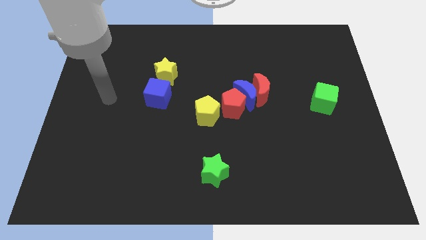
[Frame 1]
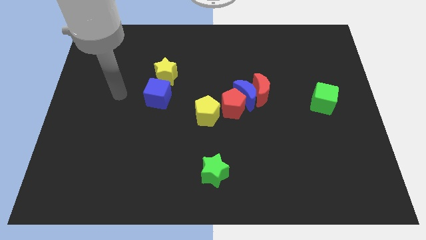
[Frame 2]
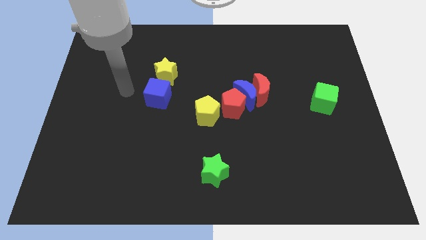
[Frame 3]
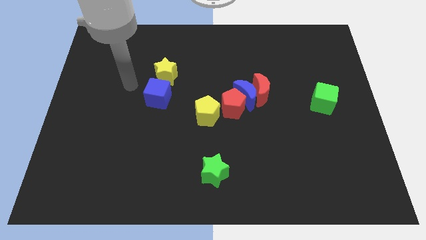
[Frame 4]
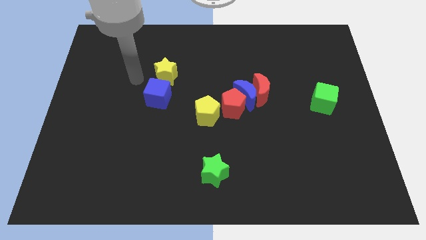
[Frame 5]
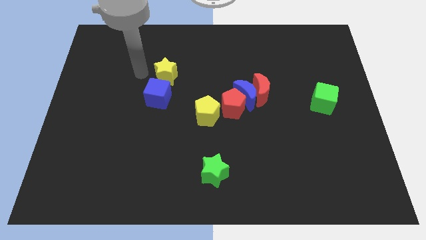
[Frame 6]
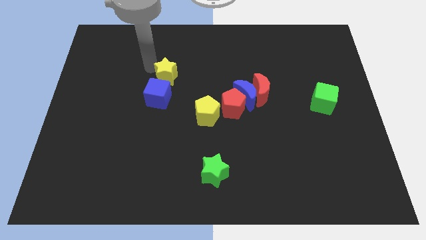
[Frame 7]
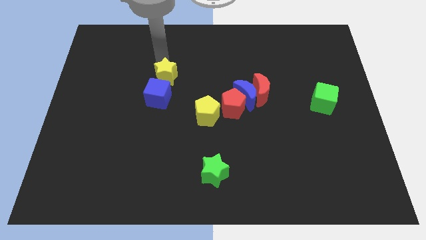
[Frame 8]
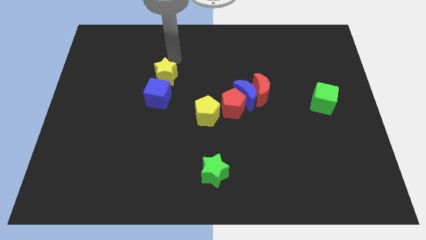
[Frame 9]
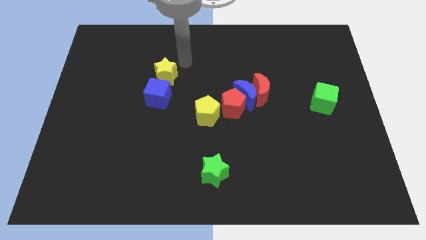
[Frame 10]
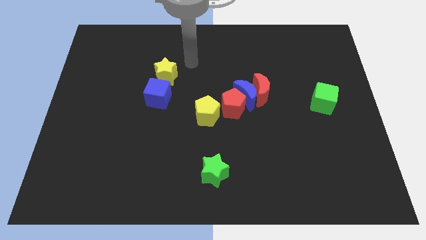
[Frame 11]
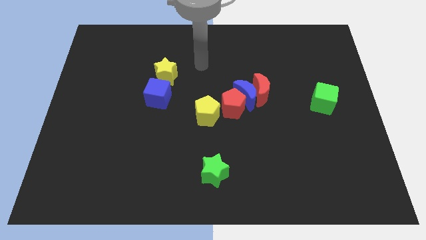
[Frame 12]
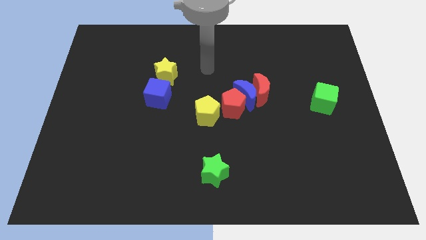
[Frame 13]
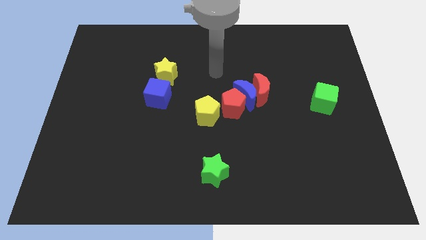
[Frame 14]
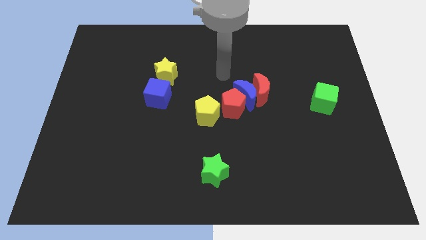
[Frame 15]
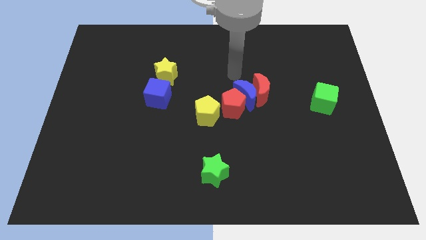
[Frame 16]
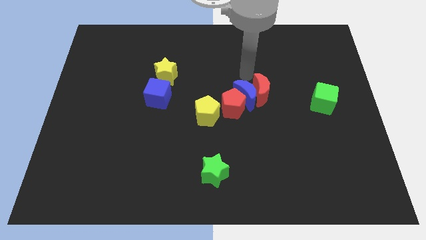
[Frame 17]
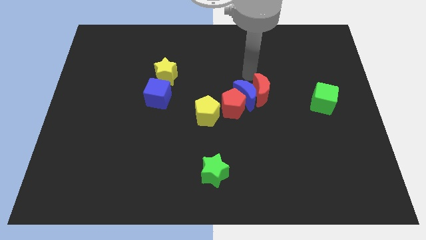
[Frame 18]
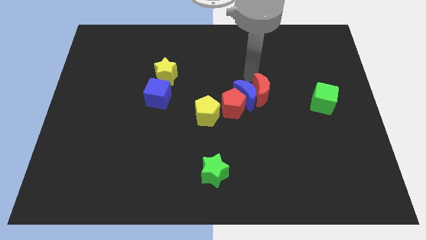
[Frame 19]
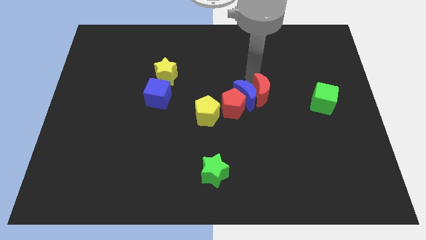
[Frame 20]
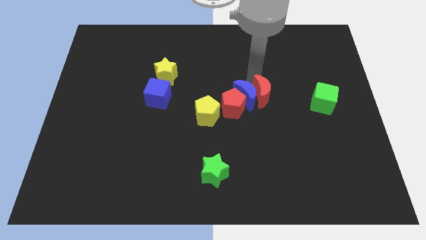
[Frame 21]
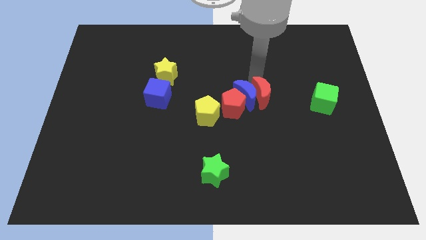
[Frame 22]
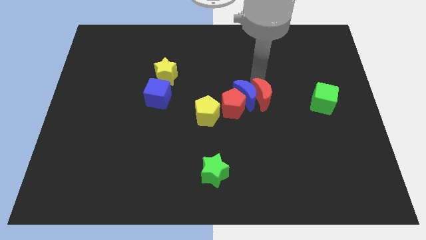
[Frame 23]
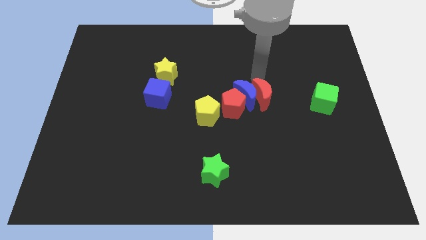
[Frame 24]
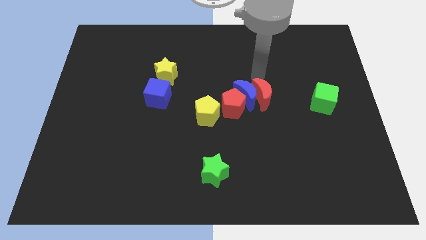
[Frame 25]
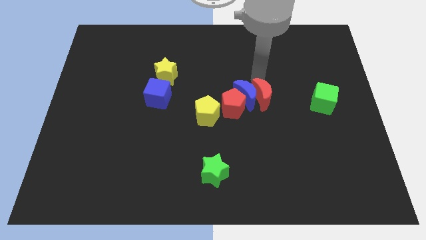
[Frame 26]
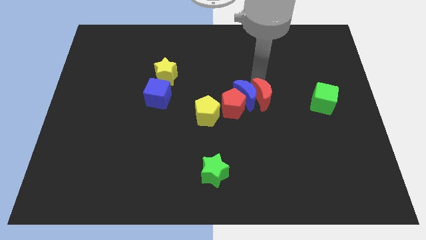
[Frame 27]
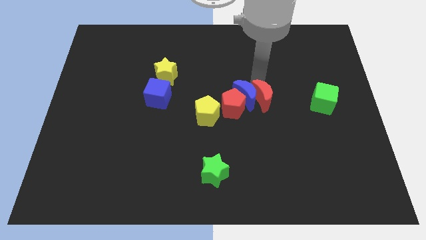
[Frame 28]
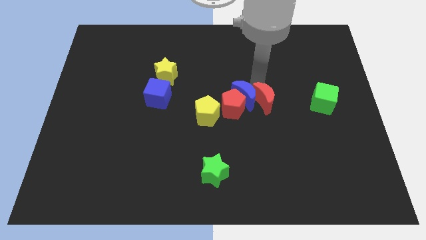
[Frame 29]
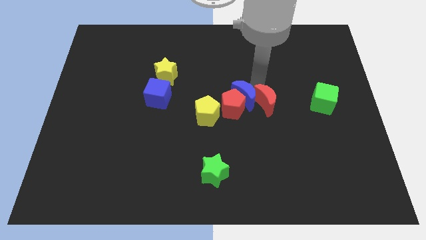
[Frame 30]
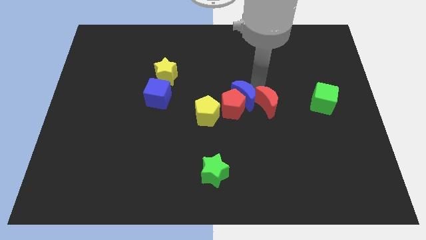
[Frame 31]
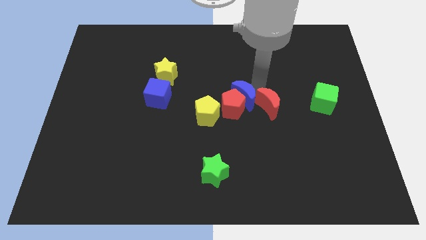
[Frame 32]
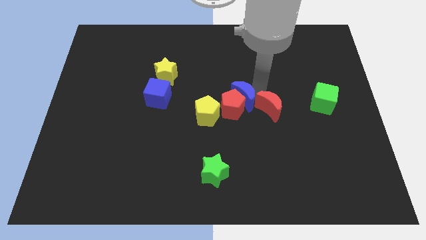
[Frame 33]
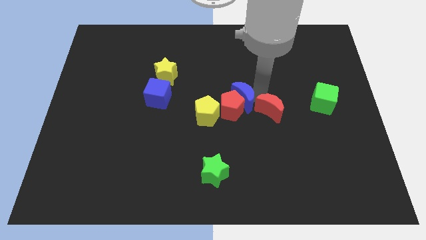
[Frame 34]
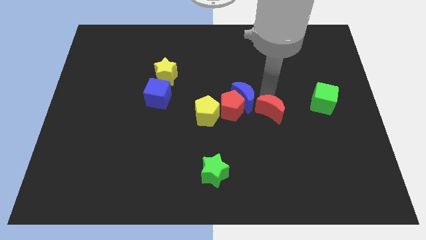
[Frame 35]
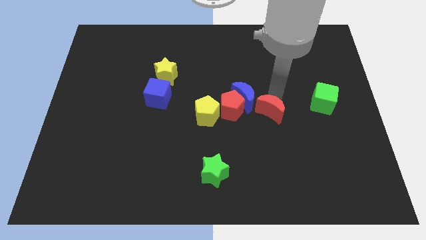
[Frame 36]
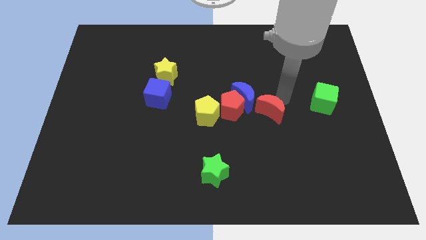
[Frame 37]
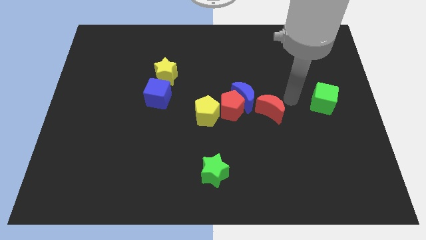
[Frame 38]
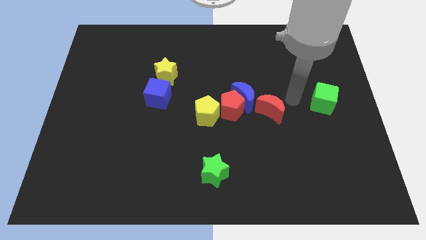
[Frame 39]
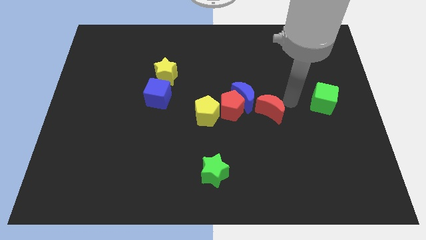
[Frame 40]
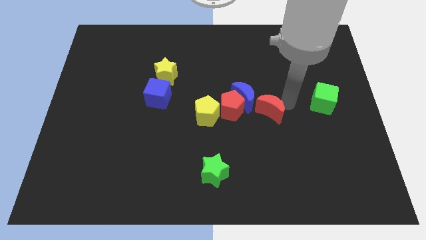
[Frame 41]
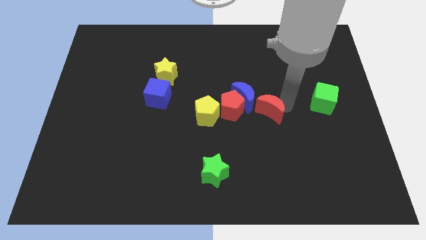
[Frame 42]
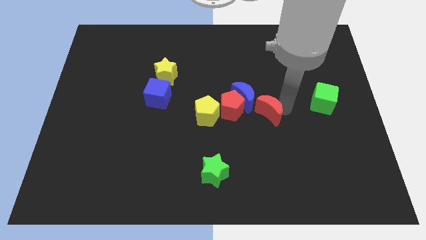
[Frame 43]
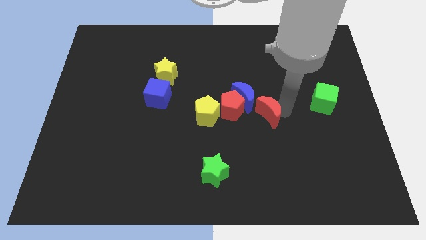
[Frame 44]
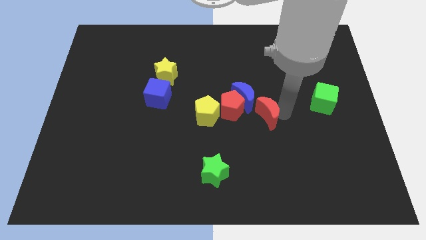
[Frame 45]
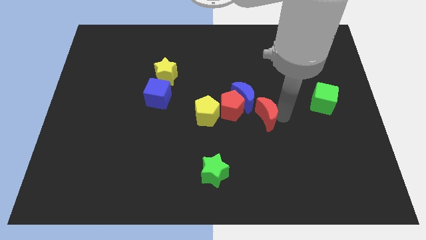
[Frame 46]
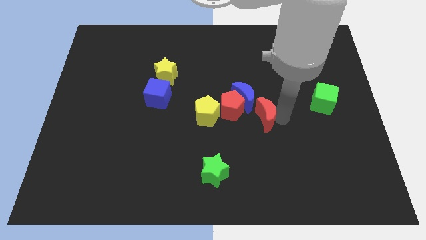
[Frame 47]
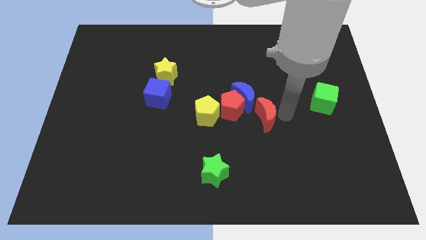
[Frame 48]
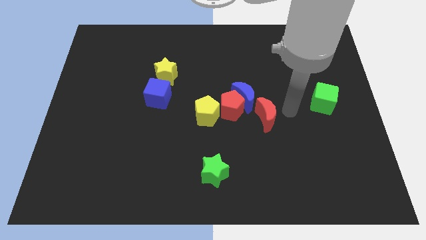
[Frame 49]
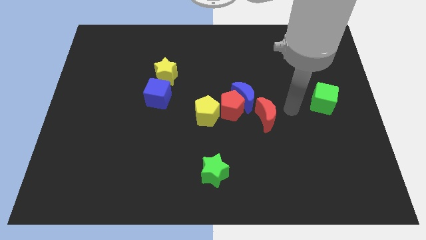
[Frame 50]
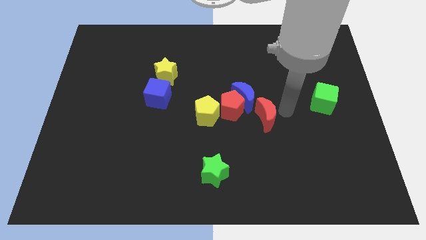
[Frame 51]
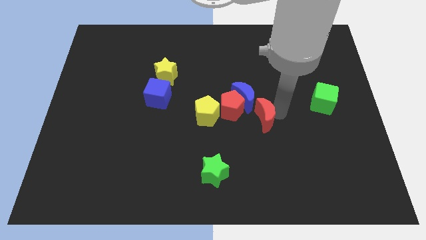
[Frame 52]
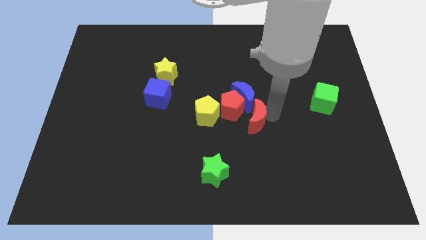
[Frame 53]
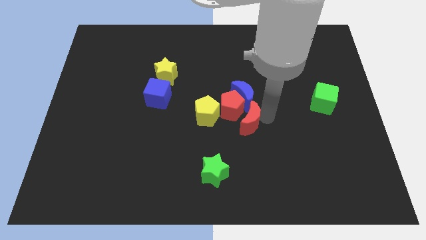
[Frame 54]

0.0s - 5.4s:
slightly push the red moon down and then left

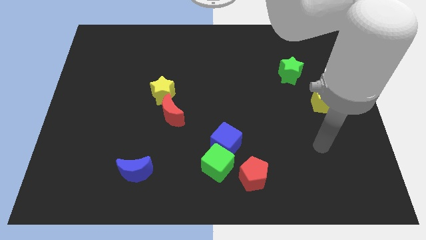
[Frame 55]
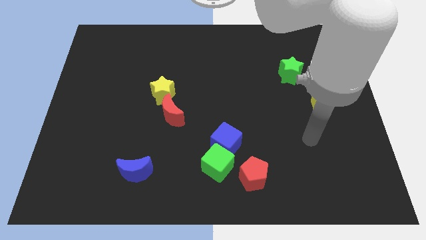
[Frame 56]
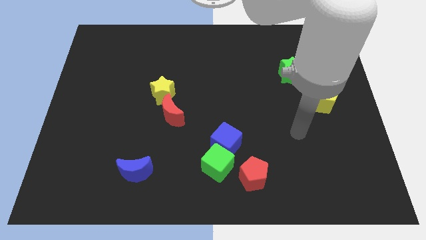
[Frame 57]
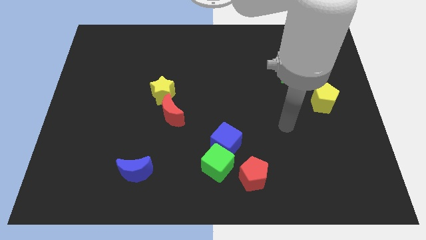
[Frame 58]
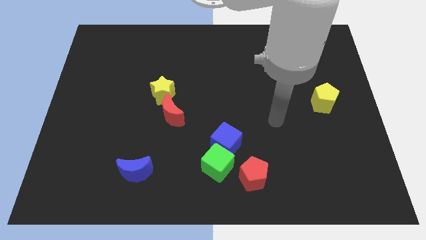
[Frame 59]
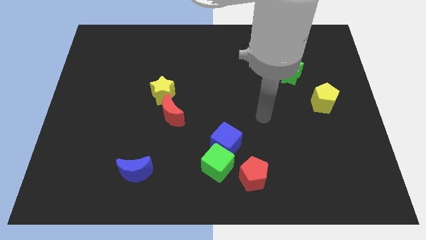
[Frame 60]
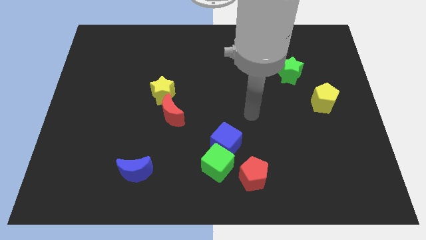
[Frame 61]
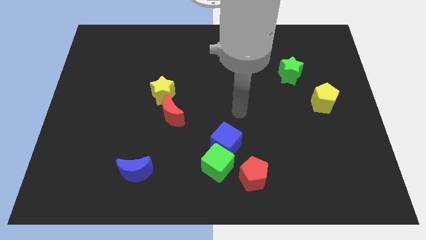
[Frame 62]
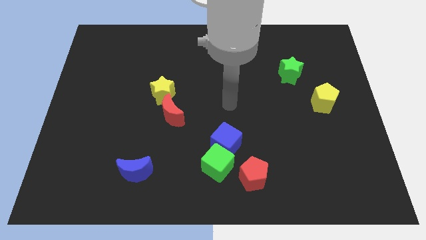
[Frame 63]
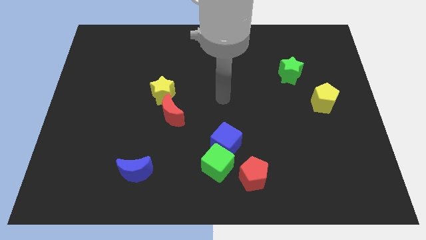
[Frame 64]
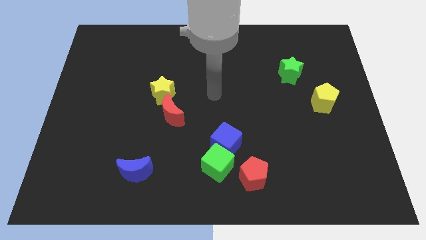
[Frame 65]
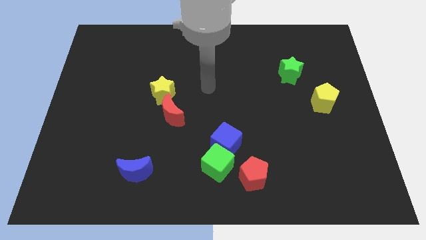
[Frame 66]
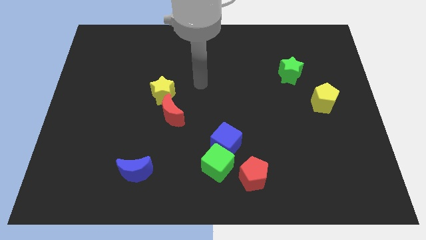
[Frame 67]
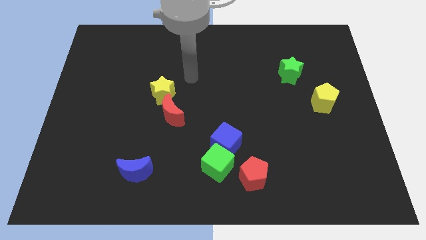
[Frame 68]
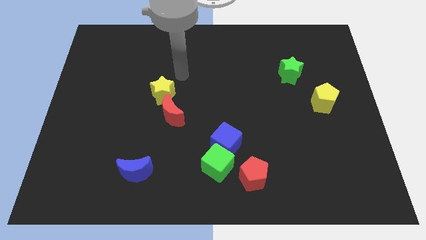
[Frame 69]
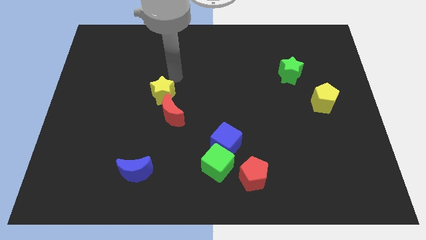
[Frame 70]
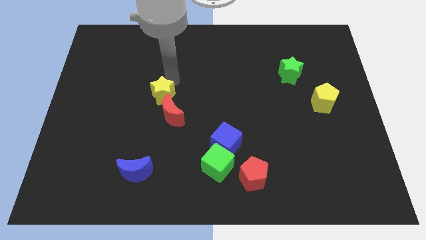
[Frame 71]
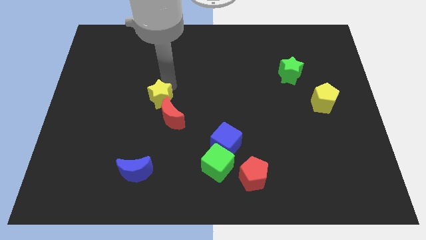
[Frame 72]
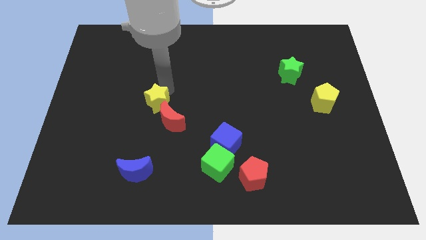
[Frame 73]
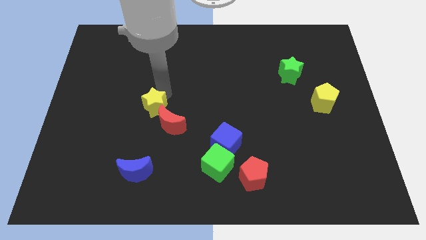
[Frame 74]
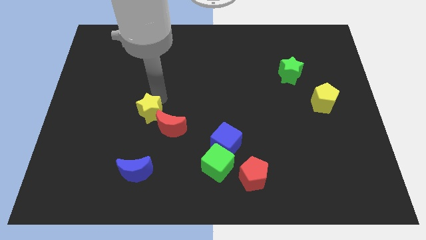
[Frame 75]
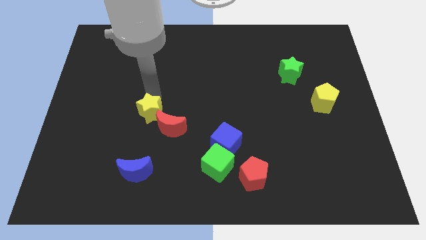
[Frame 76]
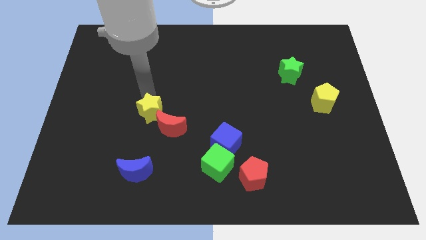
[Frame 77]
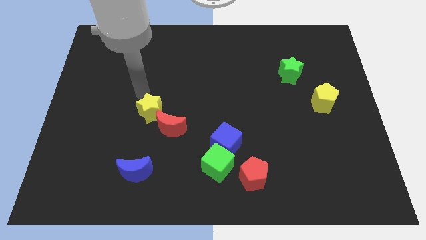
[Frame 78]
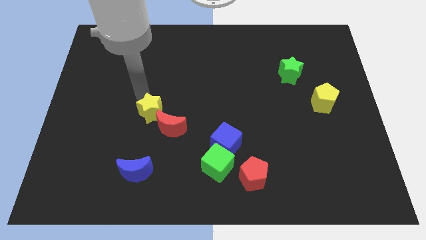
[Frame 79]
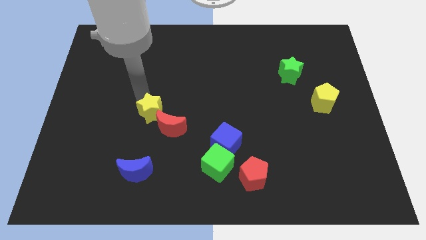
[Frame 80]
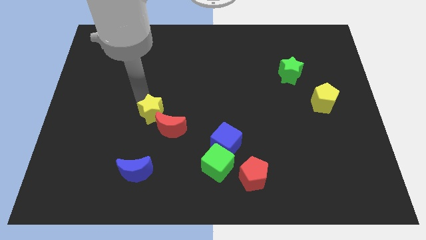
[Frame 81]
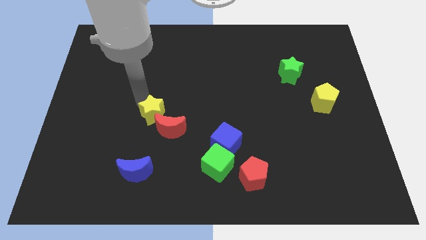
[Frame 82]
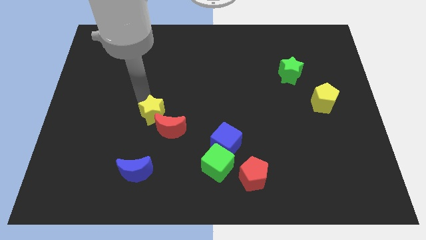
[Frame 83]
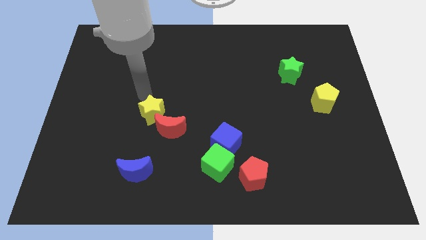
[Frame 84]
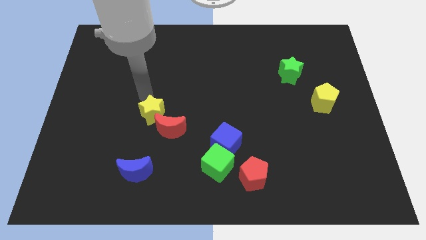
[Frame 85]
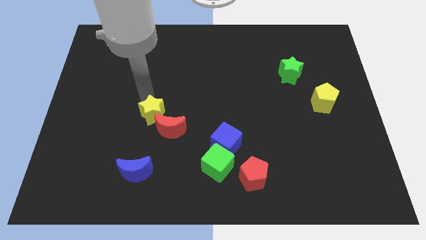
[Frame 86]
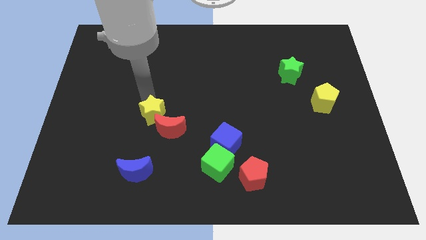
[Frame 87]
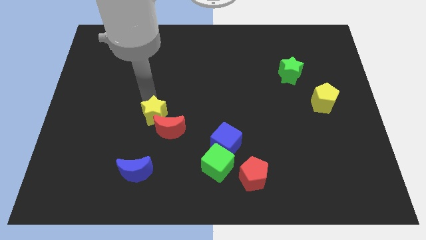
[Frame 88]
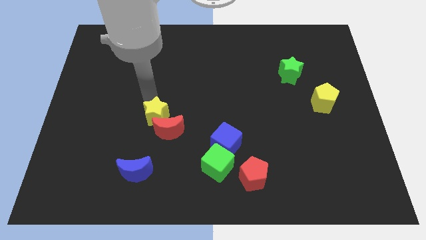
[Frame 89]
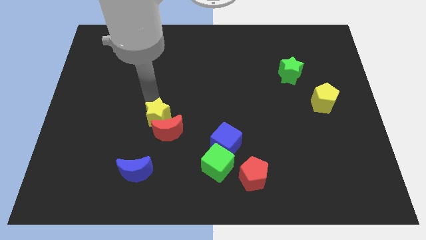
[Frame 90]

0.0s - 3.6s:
slightly move the yellow star downwards
